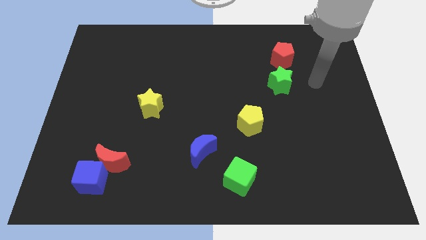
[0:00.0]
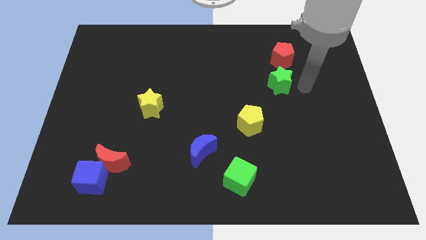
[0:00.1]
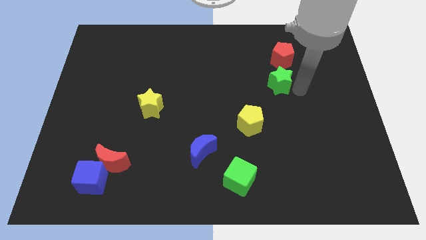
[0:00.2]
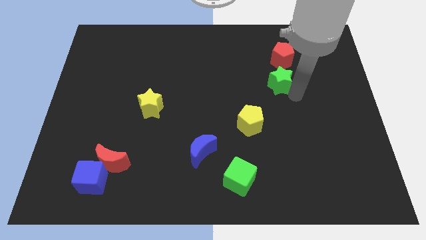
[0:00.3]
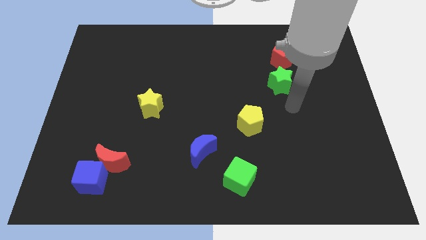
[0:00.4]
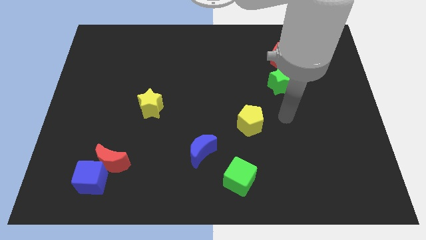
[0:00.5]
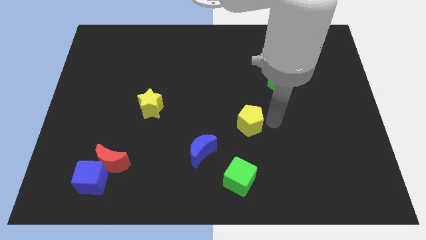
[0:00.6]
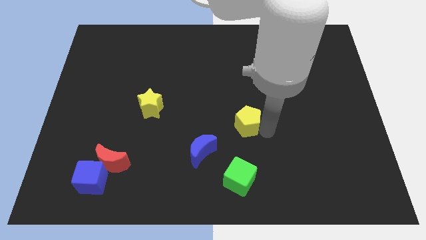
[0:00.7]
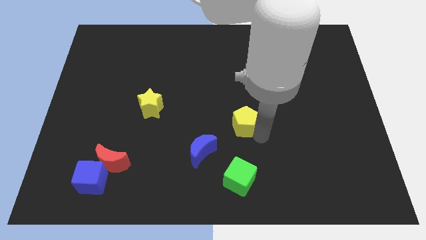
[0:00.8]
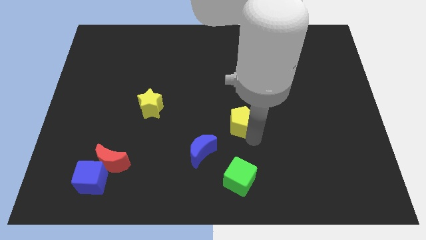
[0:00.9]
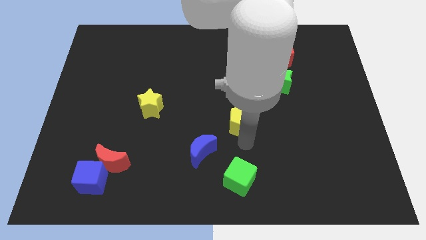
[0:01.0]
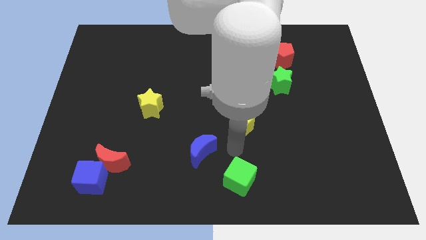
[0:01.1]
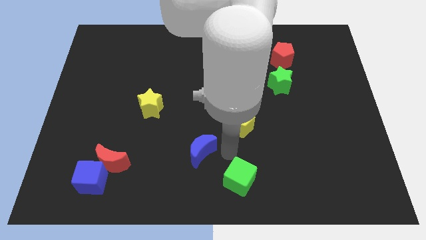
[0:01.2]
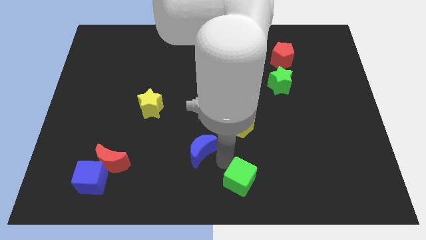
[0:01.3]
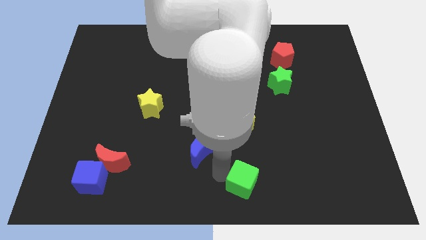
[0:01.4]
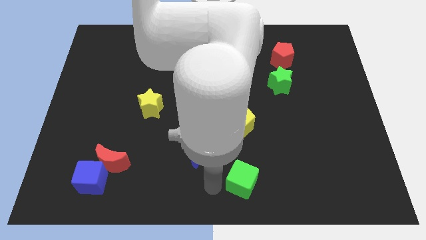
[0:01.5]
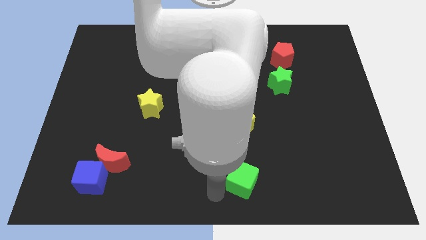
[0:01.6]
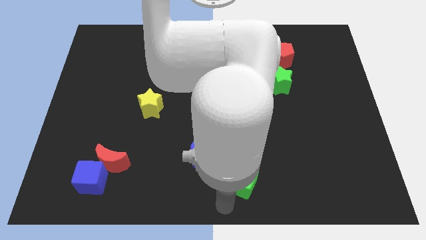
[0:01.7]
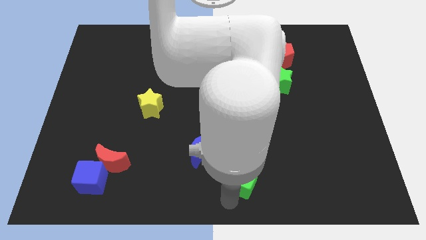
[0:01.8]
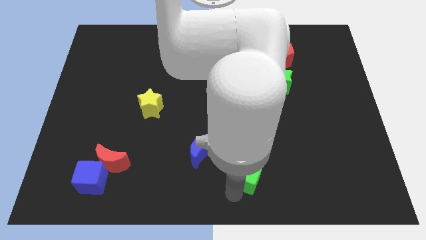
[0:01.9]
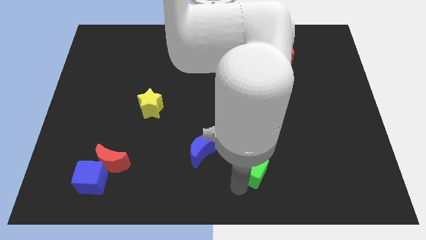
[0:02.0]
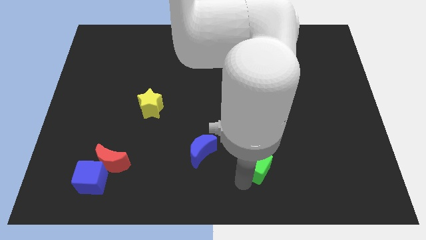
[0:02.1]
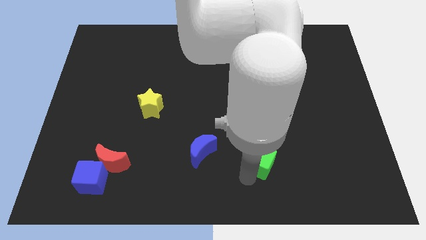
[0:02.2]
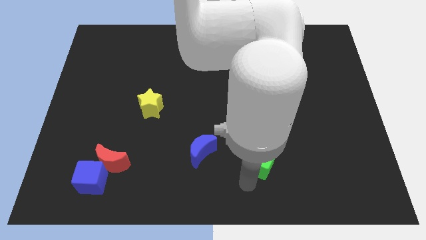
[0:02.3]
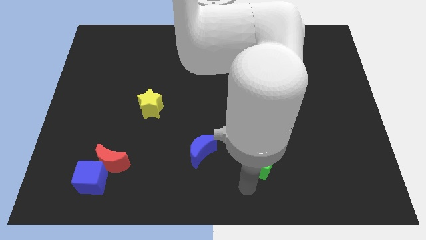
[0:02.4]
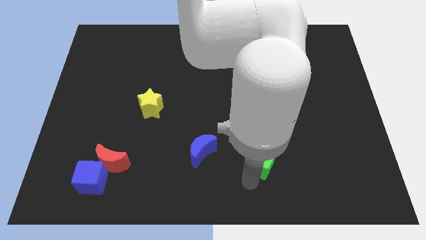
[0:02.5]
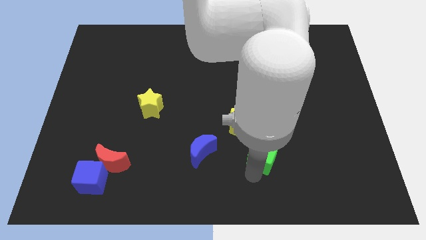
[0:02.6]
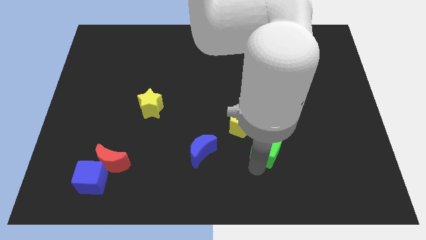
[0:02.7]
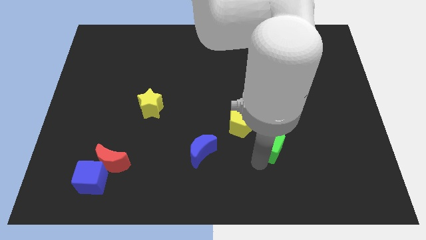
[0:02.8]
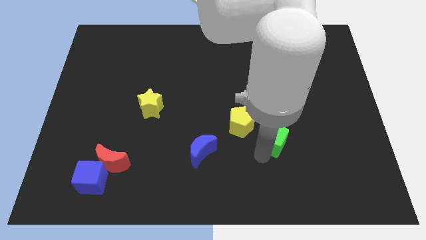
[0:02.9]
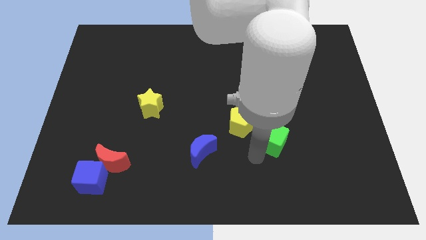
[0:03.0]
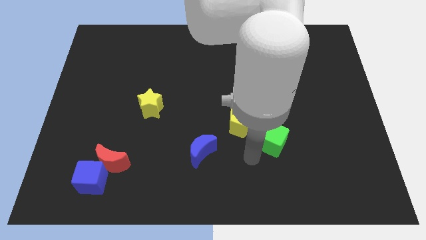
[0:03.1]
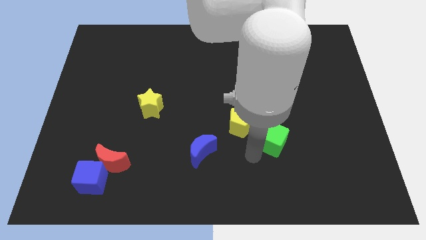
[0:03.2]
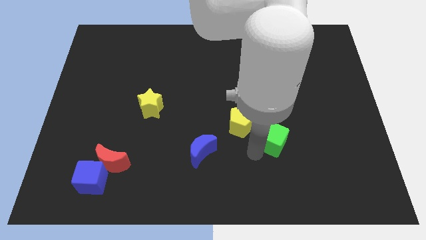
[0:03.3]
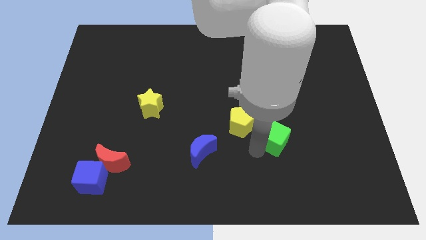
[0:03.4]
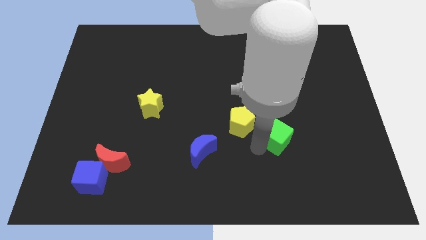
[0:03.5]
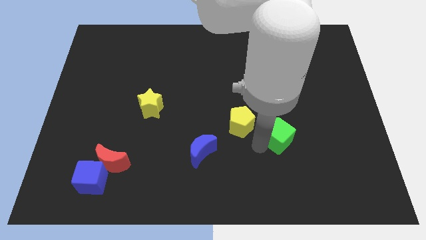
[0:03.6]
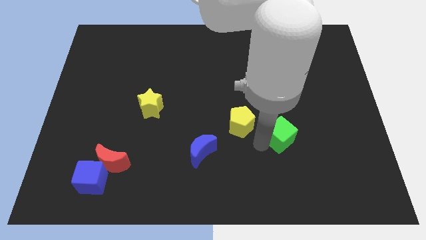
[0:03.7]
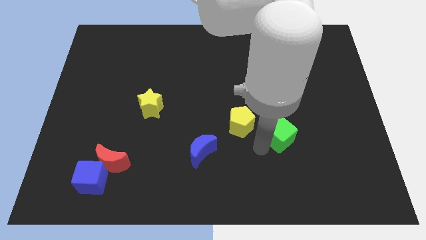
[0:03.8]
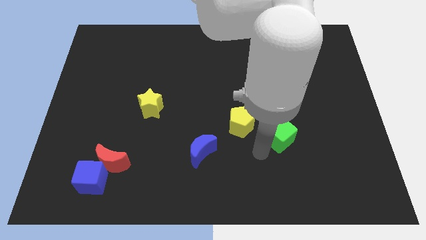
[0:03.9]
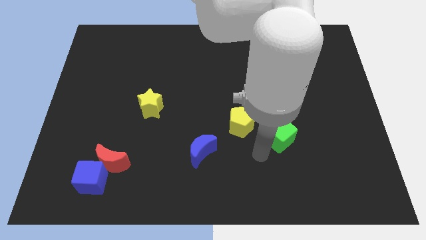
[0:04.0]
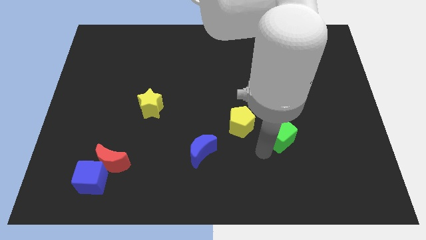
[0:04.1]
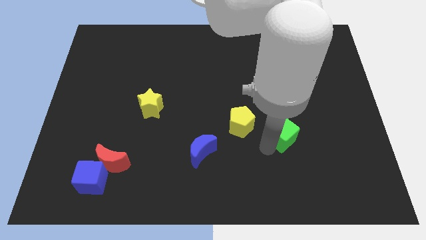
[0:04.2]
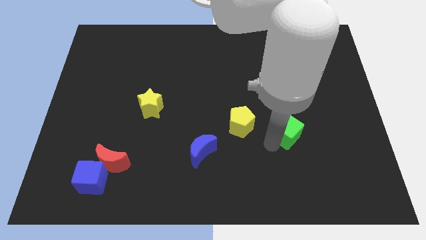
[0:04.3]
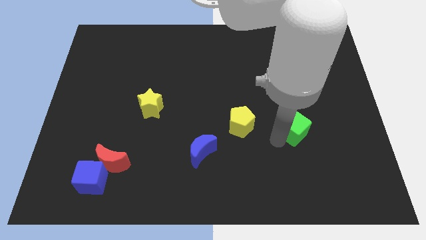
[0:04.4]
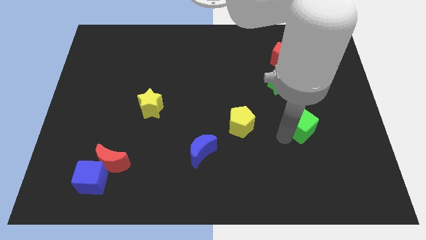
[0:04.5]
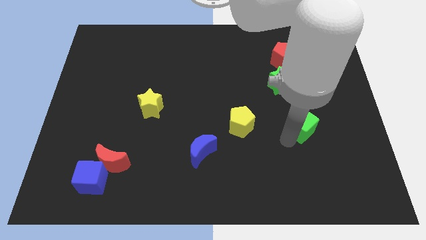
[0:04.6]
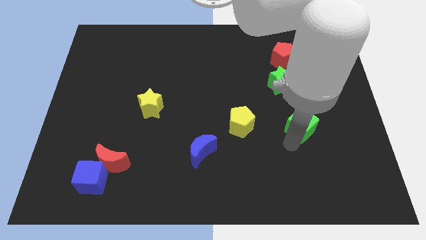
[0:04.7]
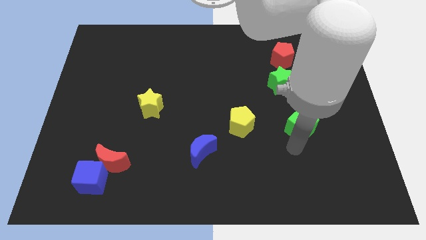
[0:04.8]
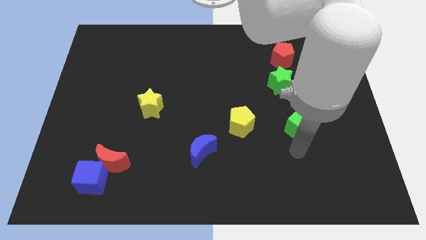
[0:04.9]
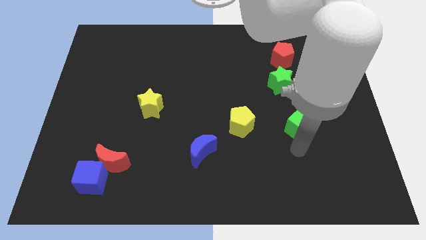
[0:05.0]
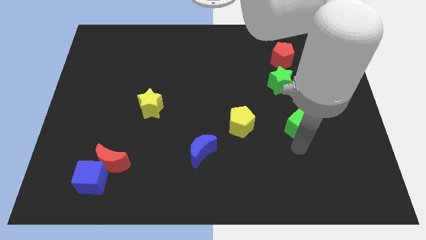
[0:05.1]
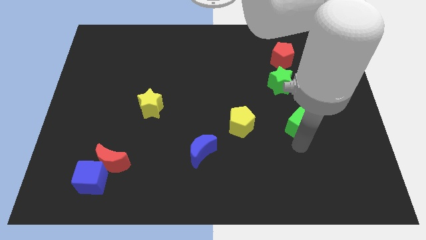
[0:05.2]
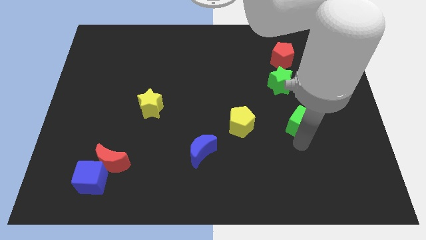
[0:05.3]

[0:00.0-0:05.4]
slide the green cube upwards and then right

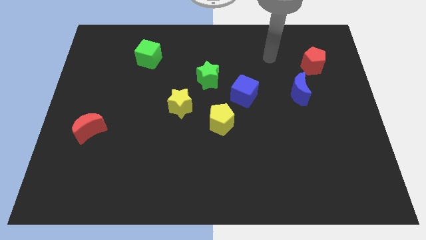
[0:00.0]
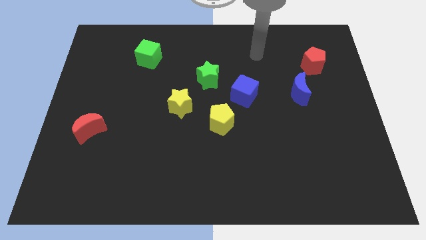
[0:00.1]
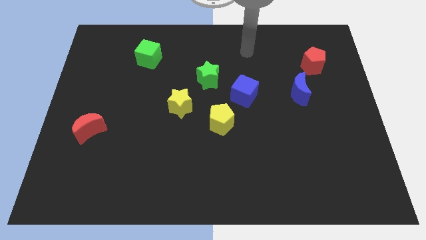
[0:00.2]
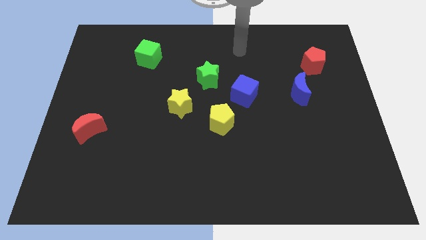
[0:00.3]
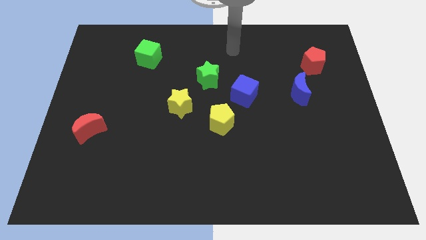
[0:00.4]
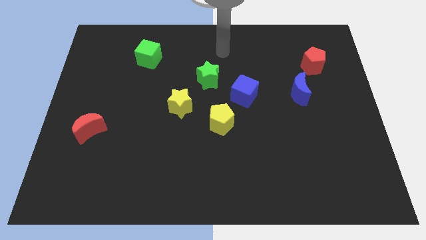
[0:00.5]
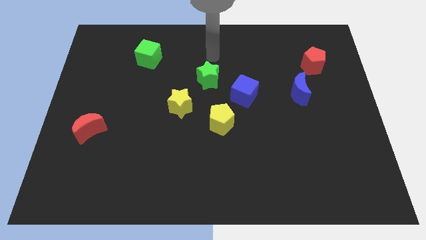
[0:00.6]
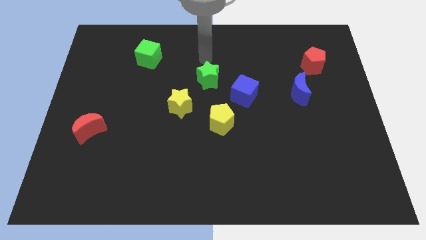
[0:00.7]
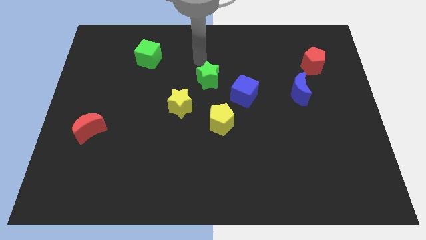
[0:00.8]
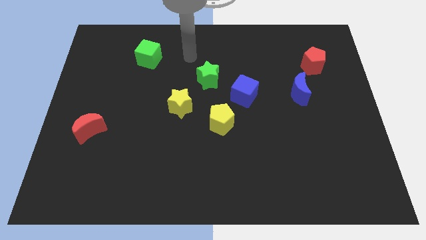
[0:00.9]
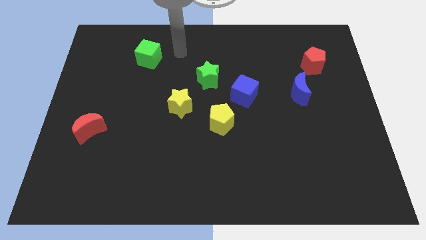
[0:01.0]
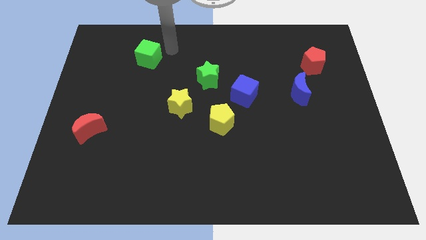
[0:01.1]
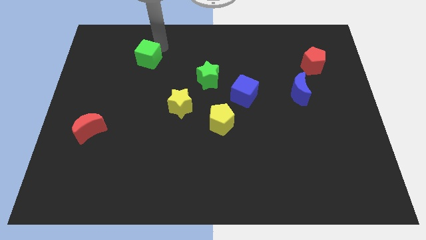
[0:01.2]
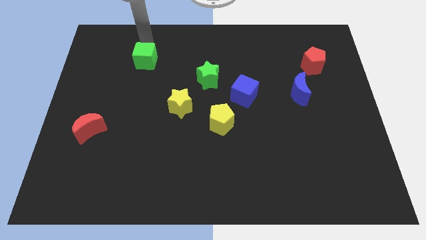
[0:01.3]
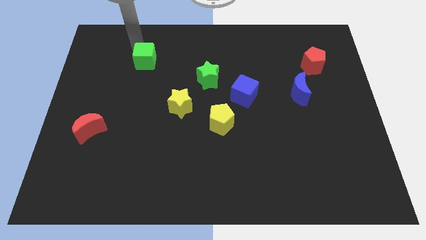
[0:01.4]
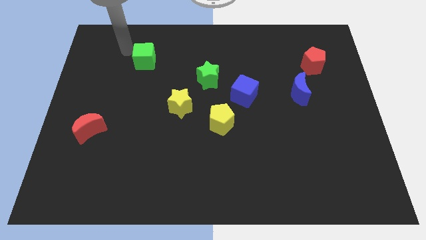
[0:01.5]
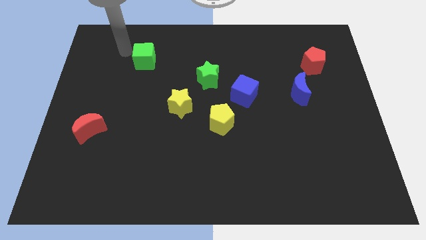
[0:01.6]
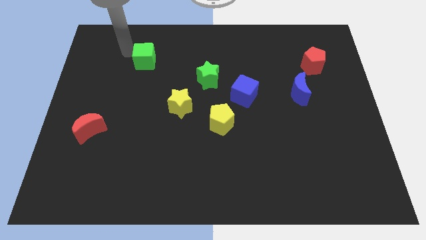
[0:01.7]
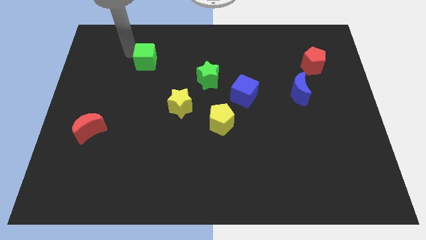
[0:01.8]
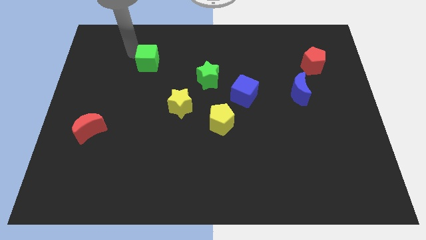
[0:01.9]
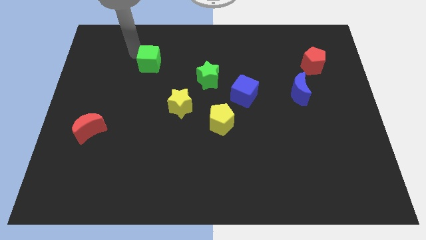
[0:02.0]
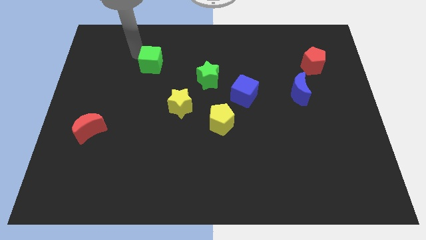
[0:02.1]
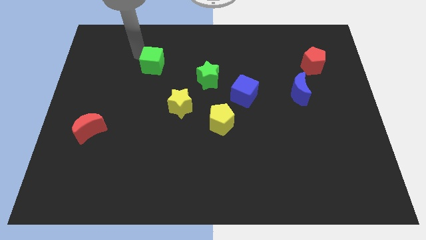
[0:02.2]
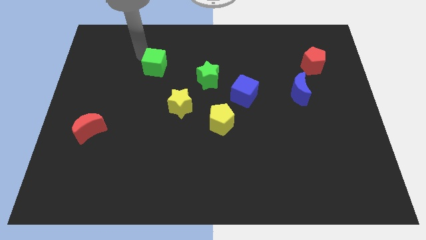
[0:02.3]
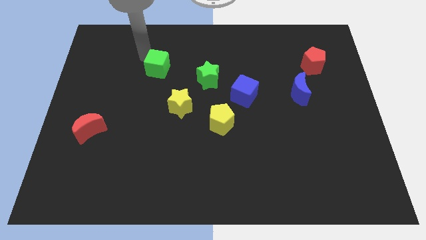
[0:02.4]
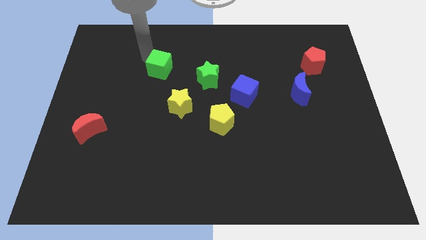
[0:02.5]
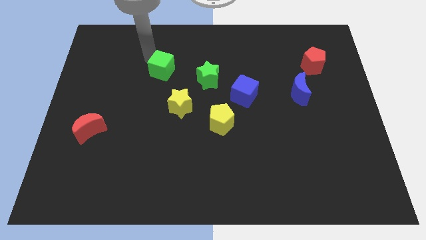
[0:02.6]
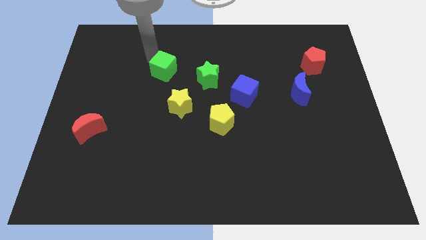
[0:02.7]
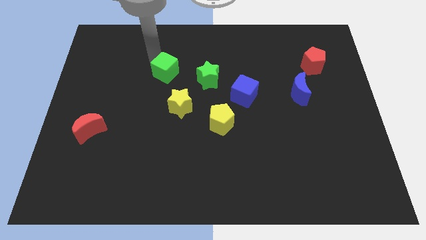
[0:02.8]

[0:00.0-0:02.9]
slightly move the green cube down and then to the right
